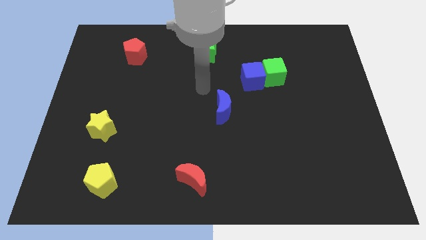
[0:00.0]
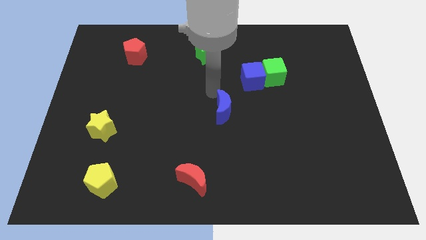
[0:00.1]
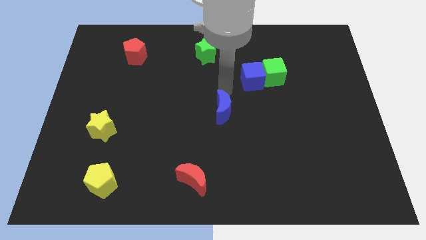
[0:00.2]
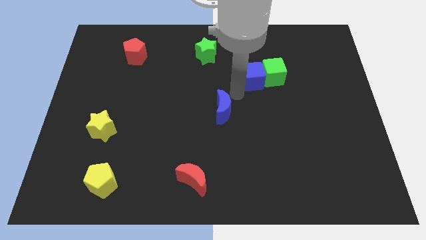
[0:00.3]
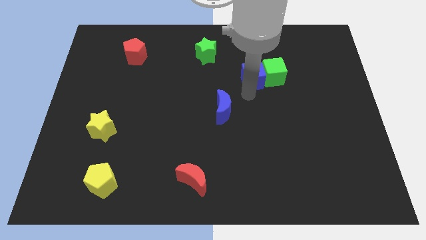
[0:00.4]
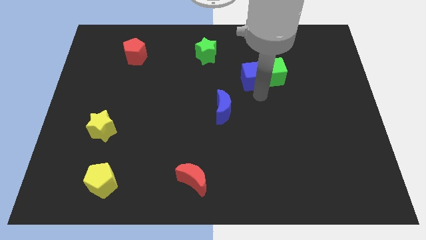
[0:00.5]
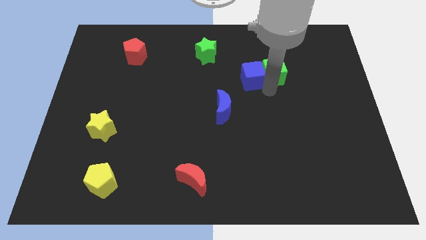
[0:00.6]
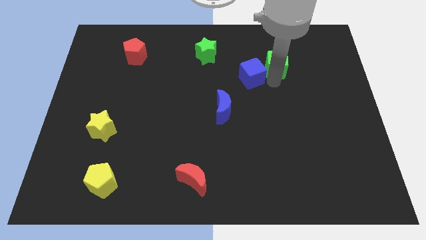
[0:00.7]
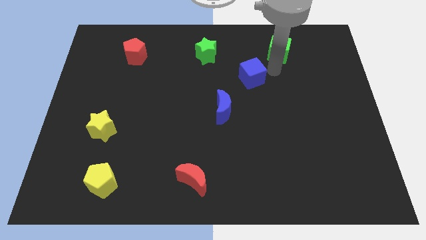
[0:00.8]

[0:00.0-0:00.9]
pull the blue cube apart from the green cube

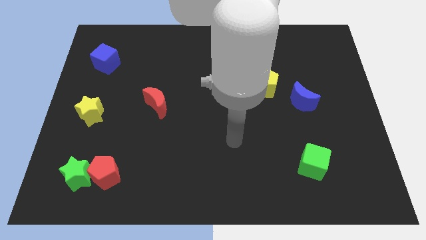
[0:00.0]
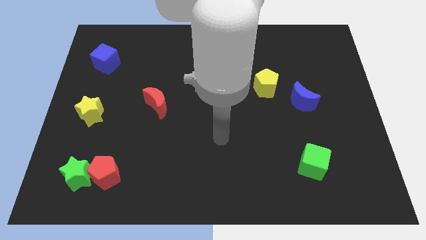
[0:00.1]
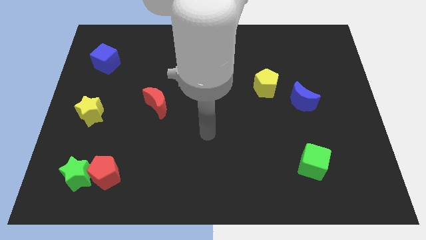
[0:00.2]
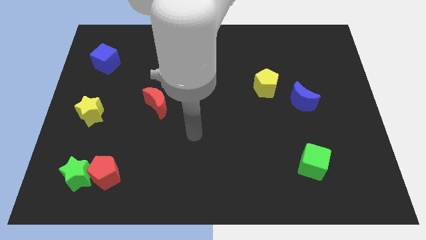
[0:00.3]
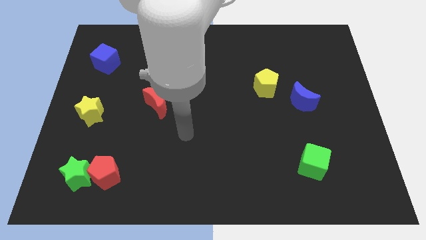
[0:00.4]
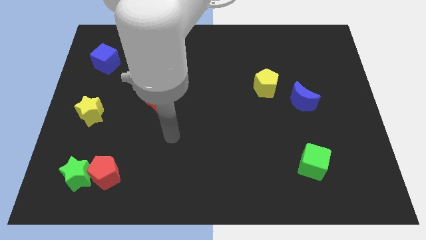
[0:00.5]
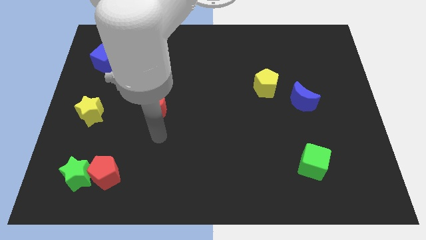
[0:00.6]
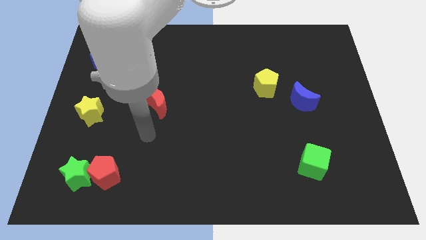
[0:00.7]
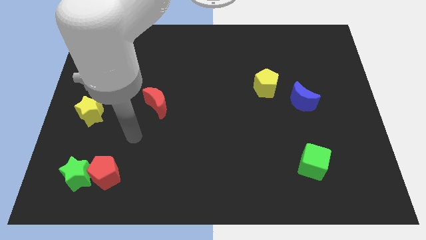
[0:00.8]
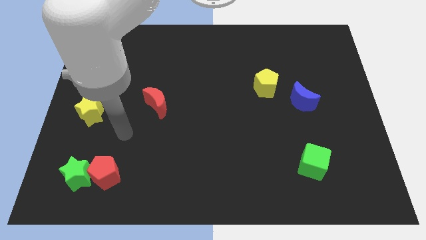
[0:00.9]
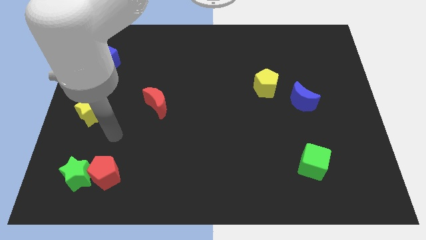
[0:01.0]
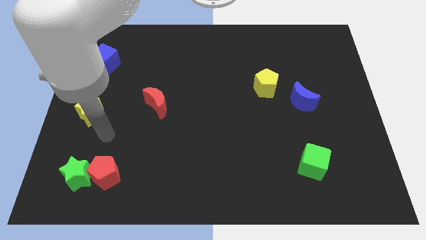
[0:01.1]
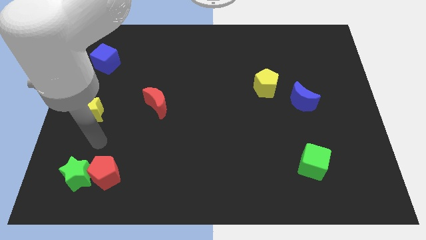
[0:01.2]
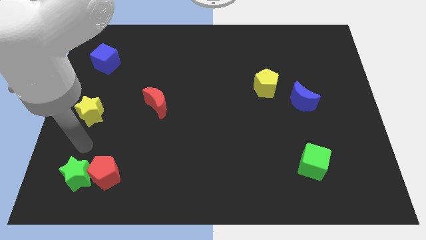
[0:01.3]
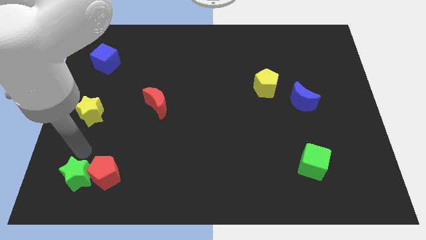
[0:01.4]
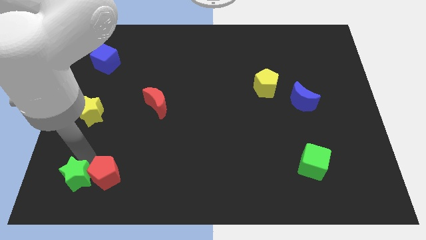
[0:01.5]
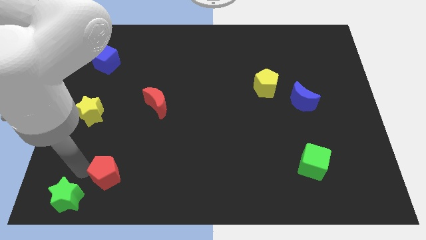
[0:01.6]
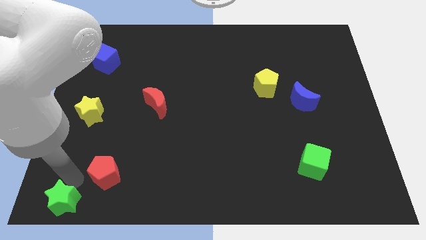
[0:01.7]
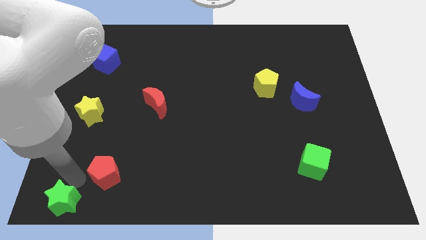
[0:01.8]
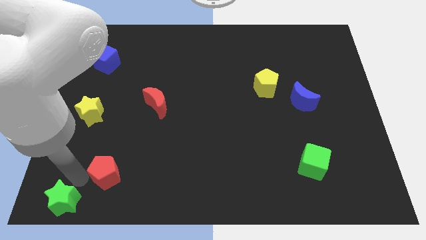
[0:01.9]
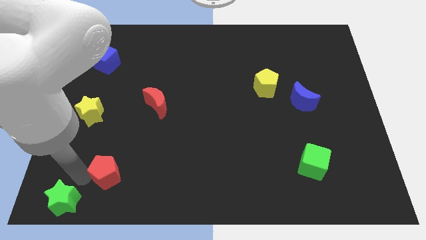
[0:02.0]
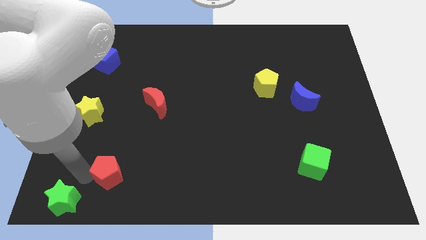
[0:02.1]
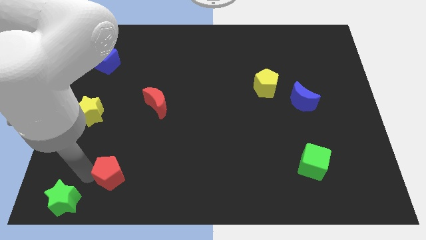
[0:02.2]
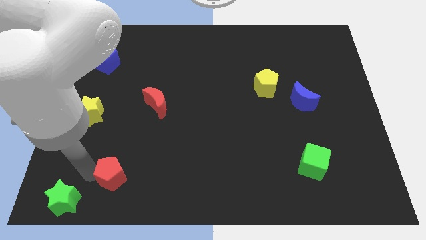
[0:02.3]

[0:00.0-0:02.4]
separate the red pentagon from the green star

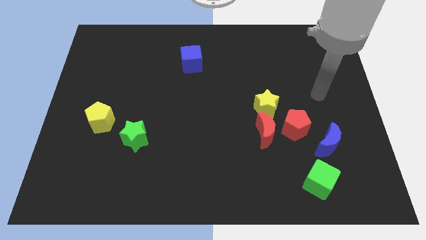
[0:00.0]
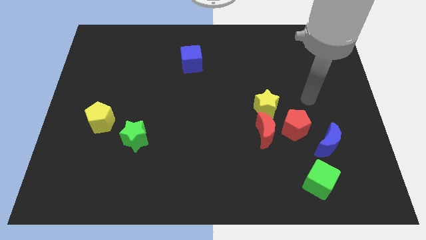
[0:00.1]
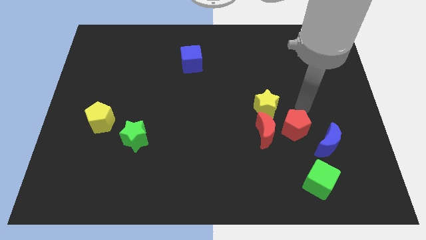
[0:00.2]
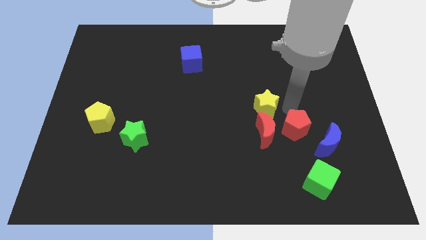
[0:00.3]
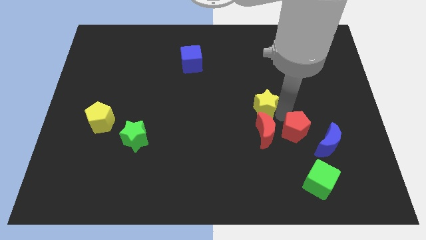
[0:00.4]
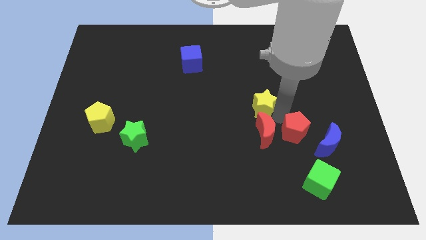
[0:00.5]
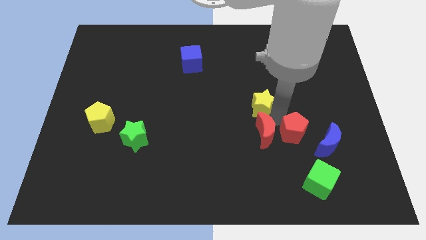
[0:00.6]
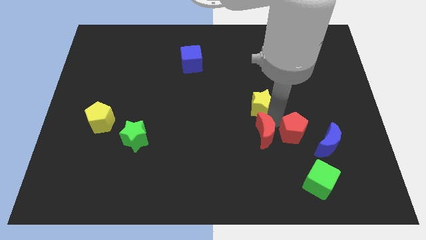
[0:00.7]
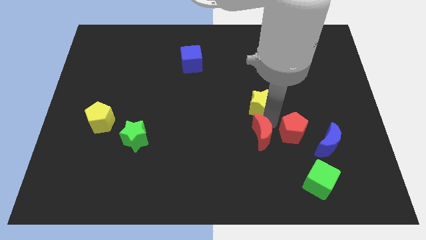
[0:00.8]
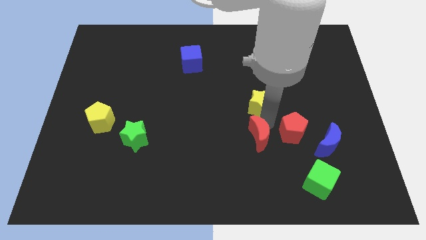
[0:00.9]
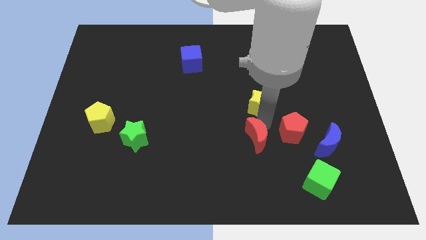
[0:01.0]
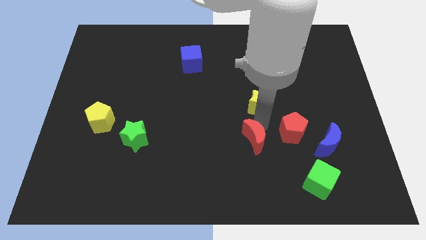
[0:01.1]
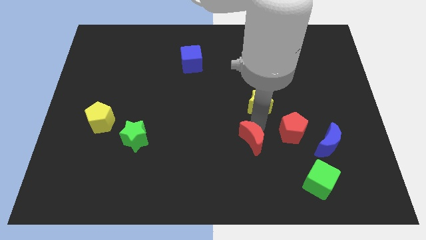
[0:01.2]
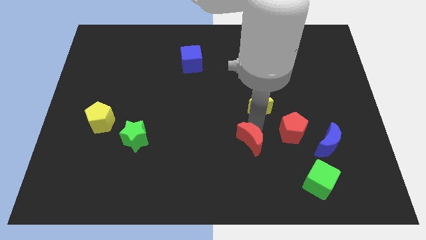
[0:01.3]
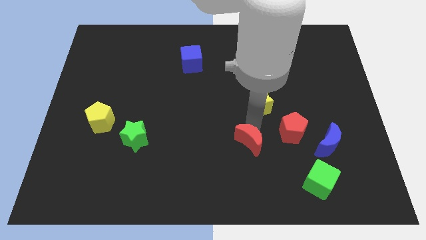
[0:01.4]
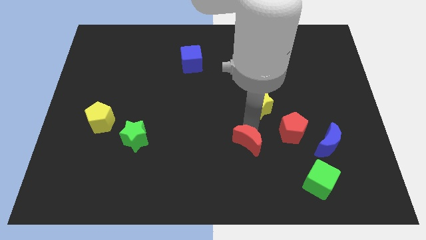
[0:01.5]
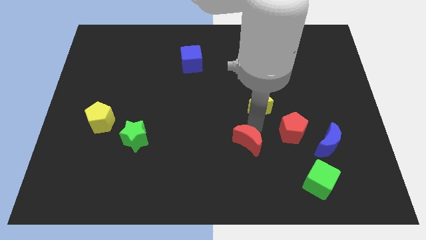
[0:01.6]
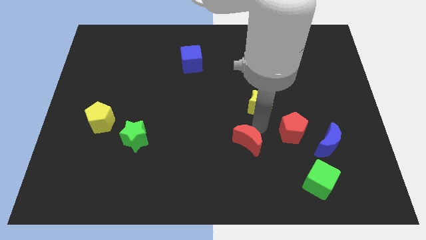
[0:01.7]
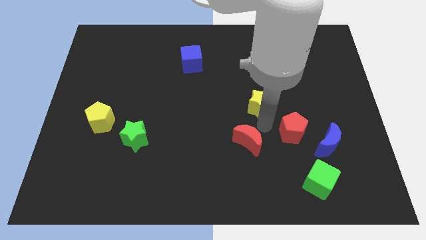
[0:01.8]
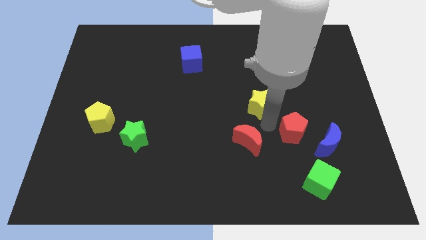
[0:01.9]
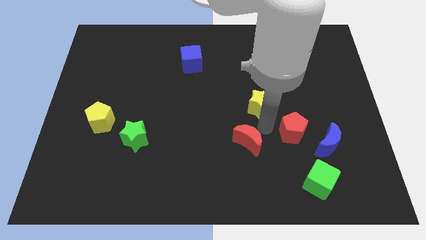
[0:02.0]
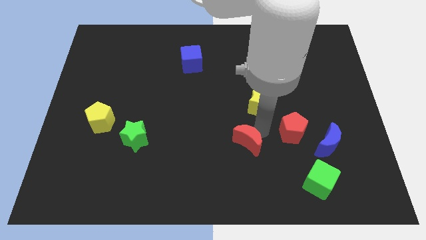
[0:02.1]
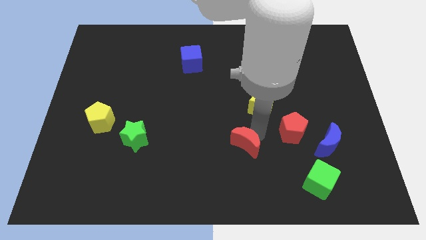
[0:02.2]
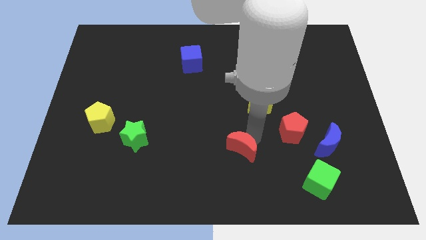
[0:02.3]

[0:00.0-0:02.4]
move the red moon away from the red pentagon and yellow star

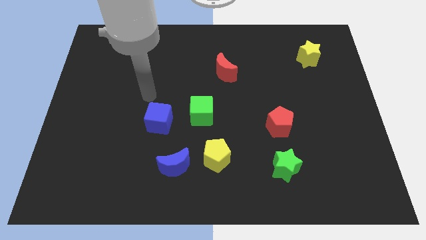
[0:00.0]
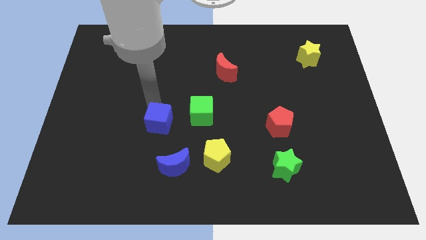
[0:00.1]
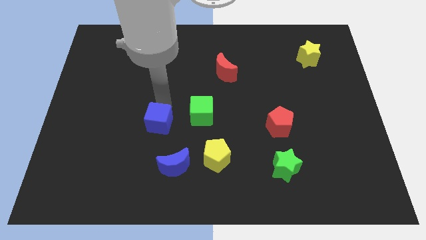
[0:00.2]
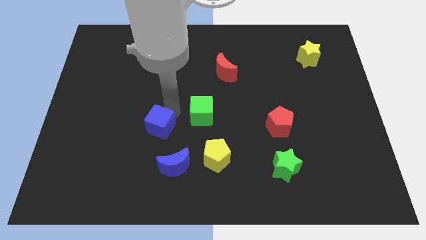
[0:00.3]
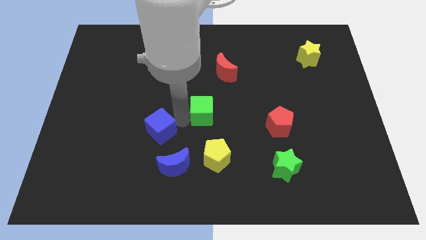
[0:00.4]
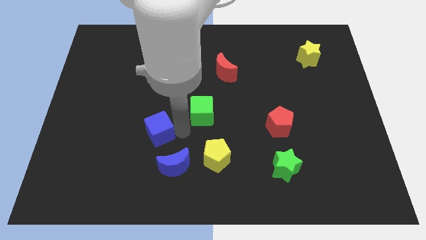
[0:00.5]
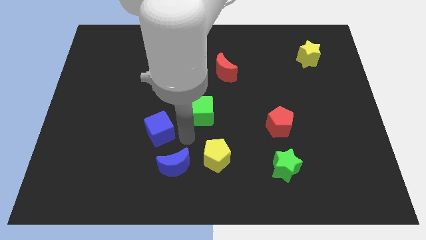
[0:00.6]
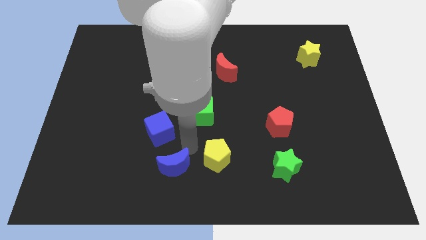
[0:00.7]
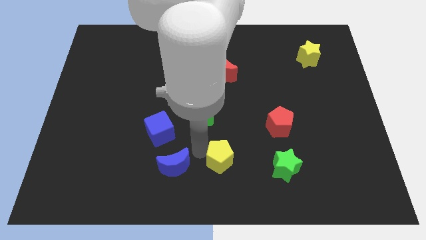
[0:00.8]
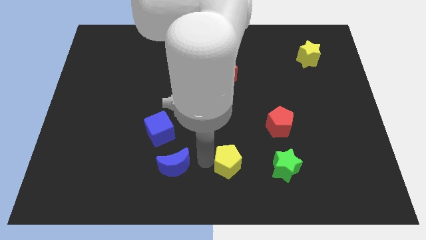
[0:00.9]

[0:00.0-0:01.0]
separate the blue moon from the yellow pentagon

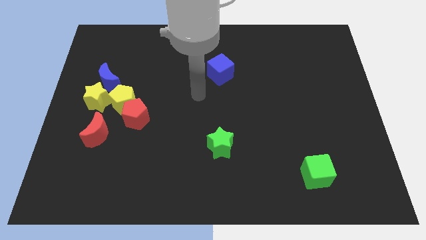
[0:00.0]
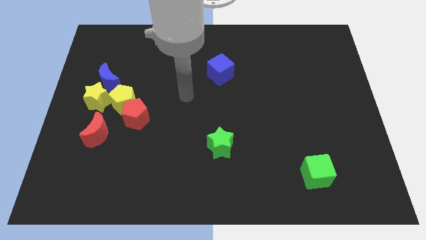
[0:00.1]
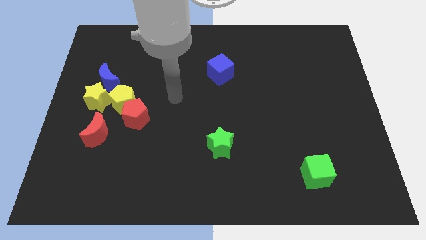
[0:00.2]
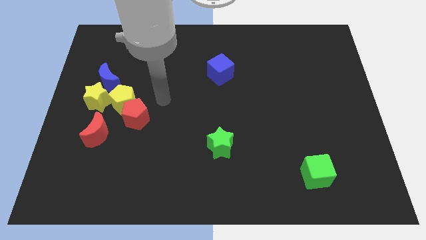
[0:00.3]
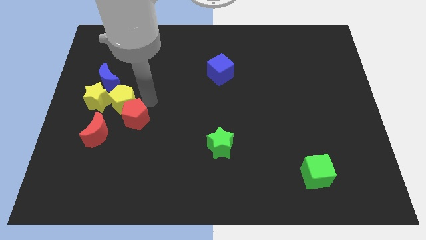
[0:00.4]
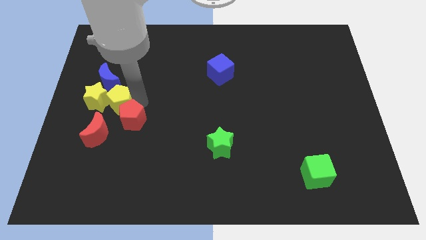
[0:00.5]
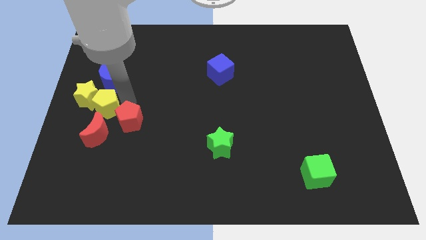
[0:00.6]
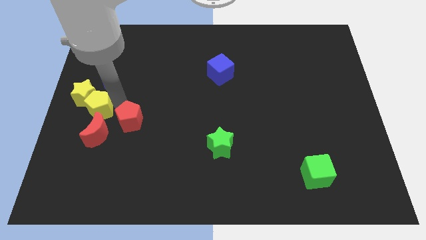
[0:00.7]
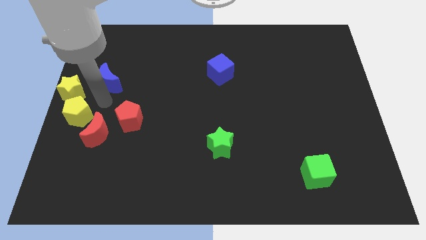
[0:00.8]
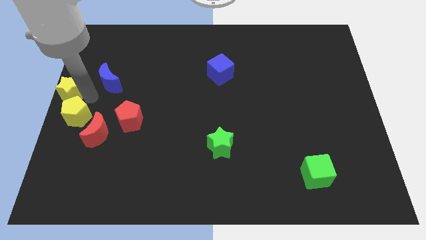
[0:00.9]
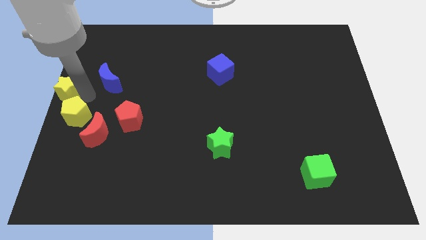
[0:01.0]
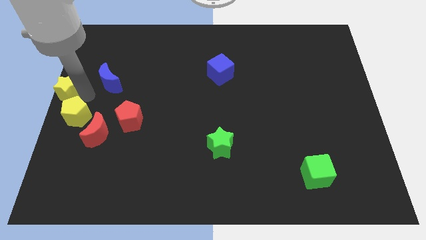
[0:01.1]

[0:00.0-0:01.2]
separate the blue moon from the yellow star and yellow pentagon

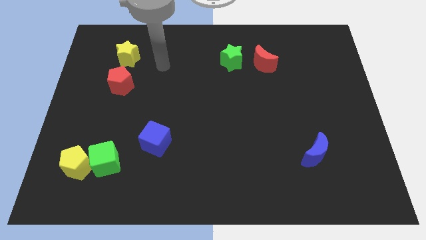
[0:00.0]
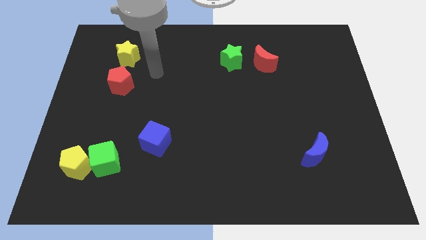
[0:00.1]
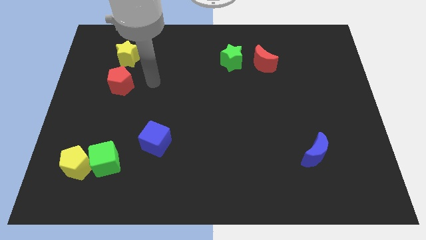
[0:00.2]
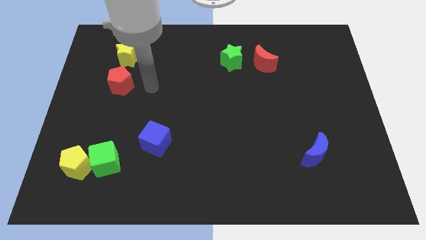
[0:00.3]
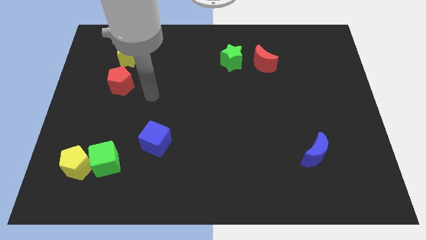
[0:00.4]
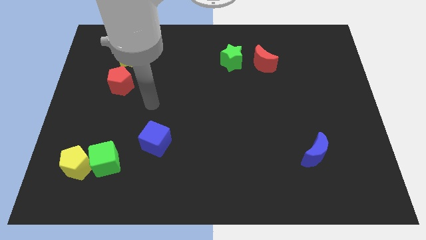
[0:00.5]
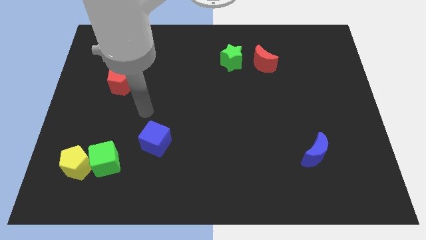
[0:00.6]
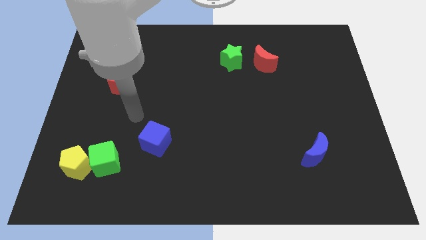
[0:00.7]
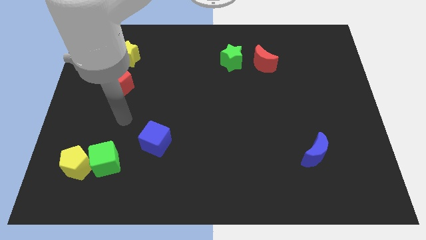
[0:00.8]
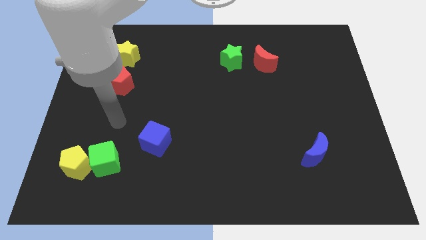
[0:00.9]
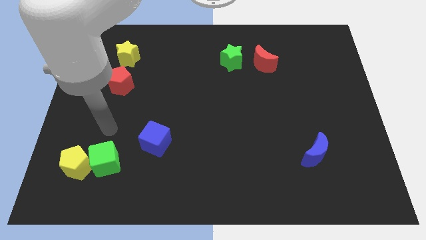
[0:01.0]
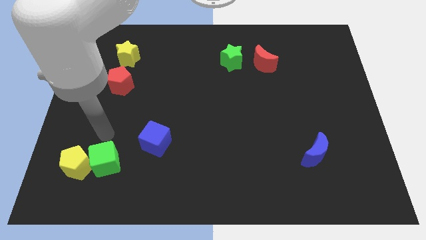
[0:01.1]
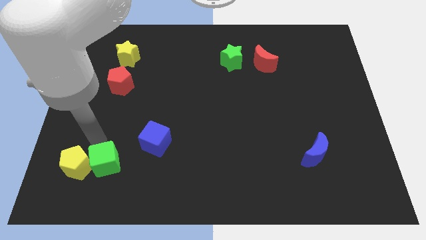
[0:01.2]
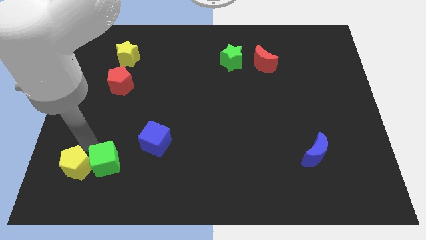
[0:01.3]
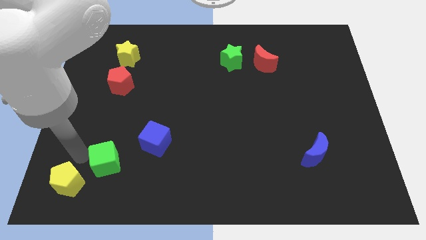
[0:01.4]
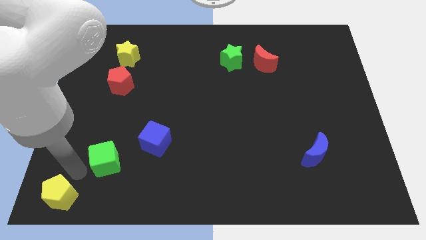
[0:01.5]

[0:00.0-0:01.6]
separate the green cube from the yellow pentagon
